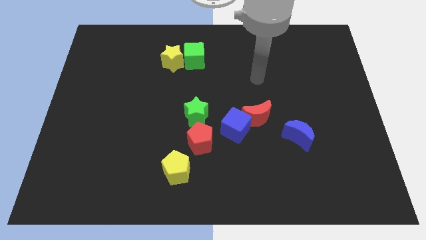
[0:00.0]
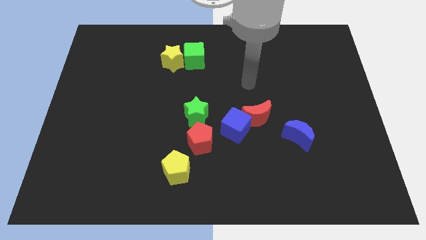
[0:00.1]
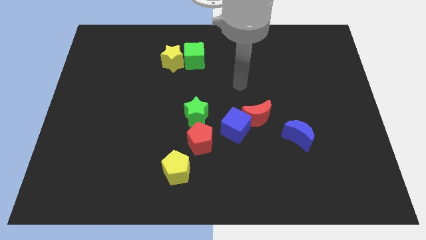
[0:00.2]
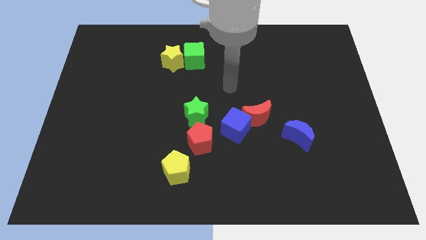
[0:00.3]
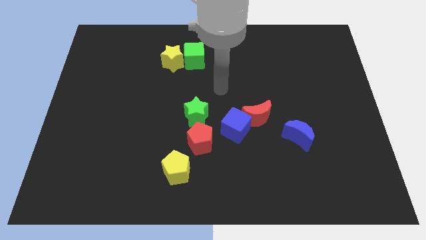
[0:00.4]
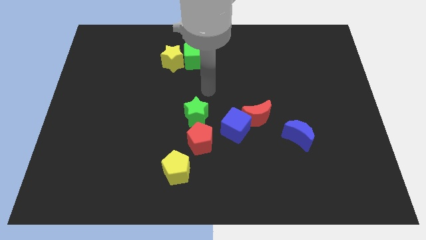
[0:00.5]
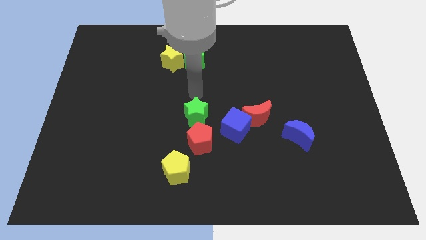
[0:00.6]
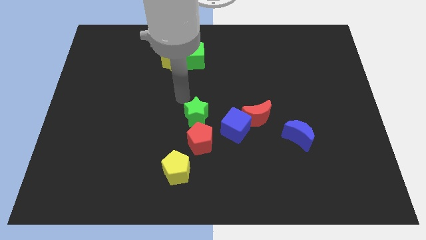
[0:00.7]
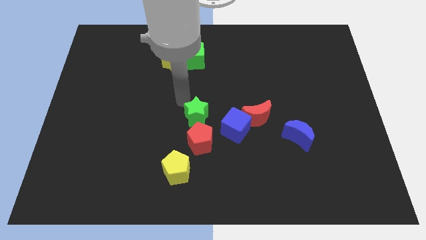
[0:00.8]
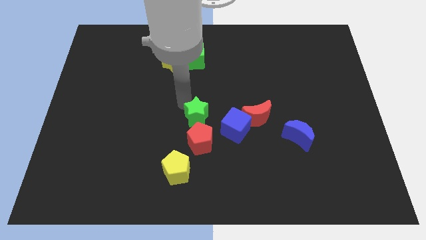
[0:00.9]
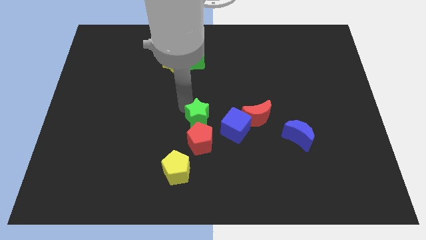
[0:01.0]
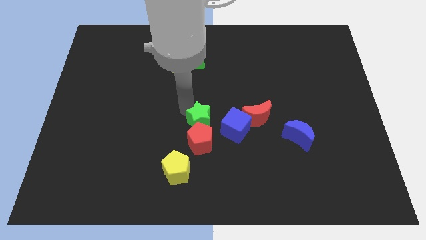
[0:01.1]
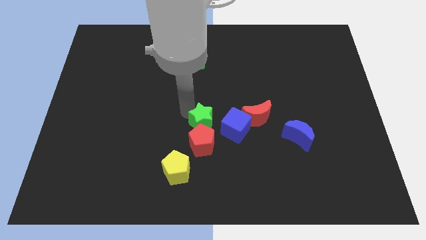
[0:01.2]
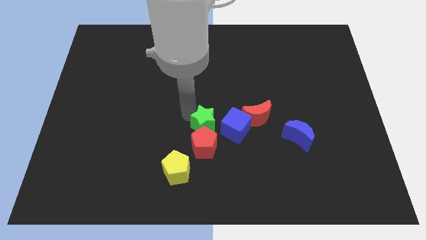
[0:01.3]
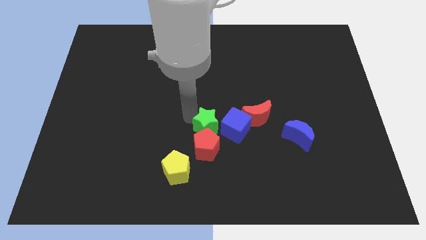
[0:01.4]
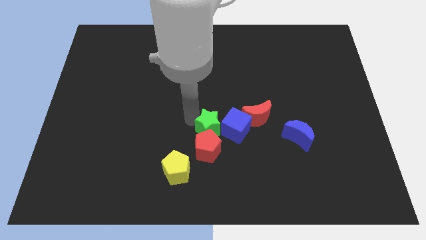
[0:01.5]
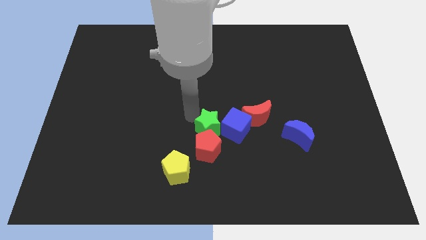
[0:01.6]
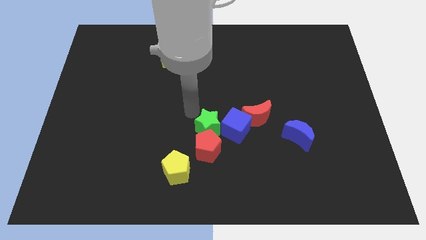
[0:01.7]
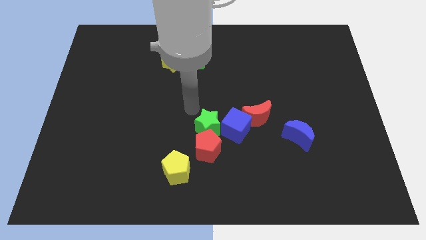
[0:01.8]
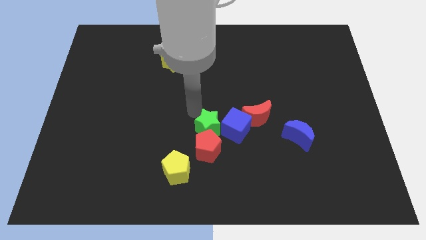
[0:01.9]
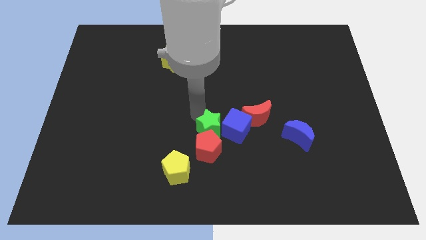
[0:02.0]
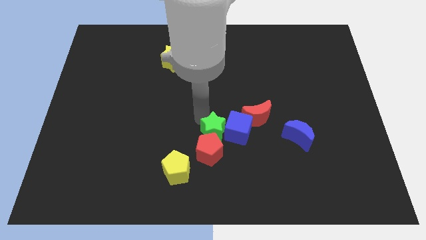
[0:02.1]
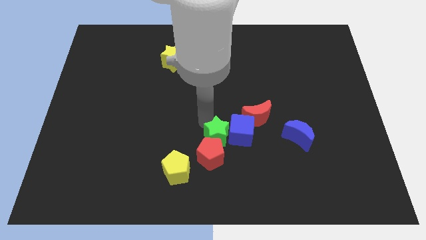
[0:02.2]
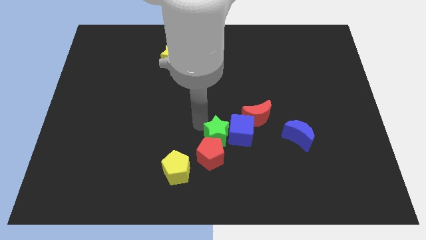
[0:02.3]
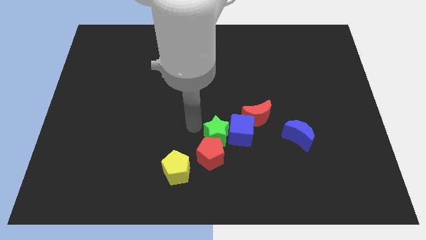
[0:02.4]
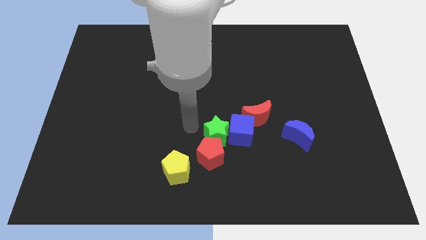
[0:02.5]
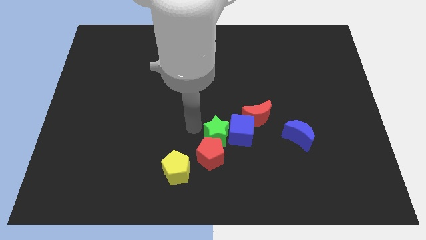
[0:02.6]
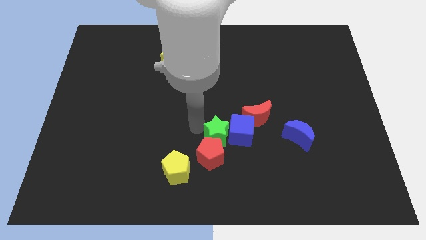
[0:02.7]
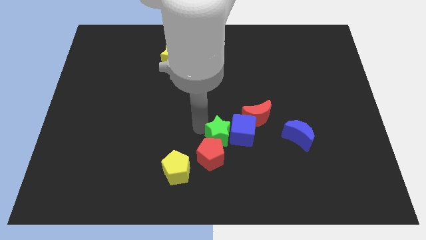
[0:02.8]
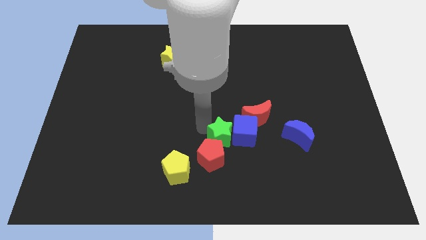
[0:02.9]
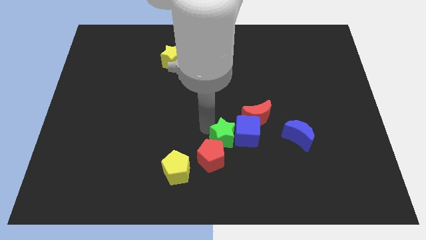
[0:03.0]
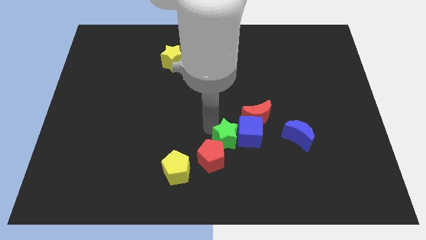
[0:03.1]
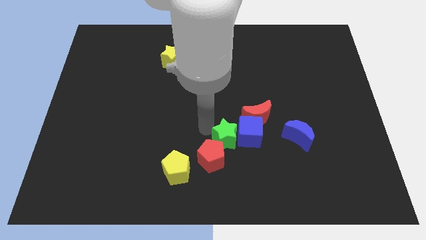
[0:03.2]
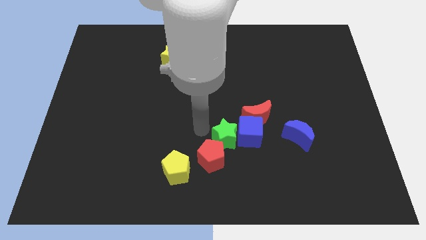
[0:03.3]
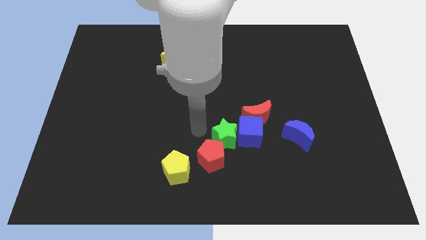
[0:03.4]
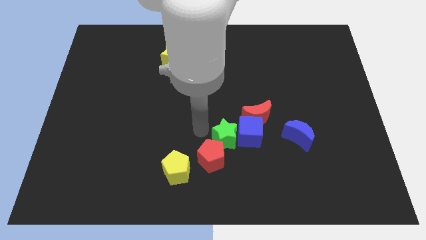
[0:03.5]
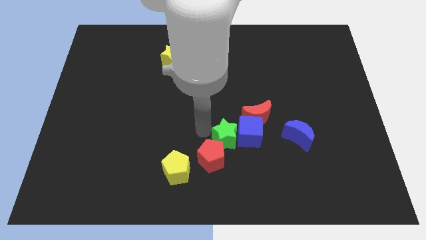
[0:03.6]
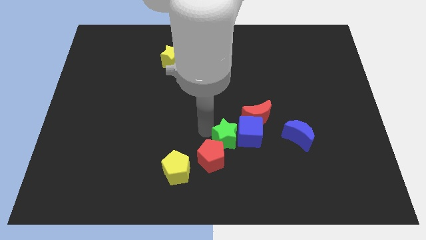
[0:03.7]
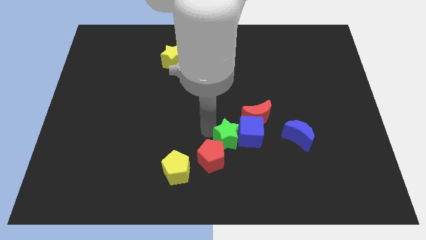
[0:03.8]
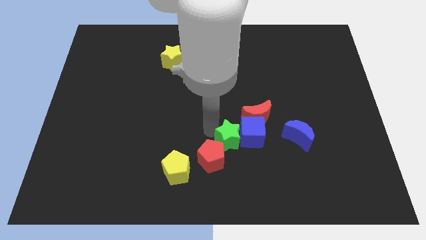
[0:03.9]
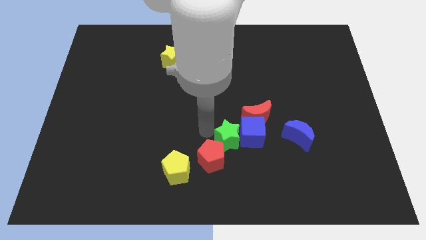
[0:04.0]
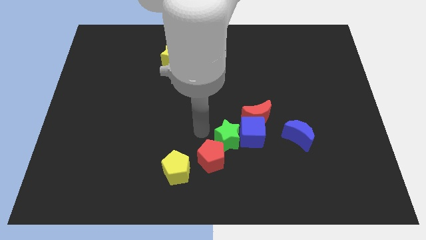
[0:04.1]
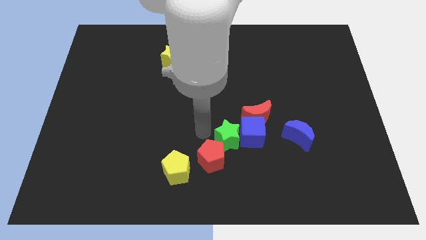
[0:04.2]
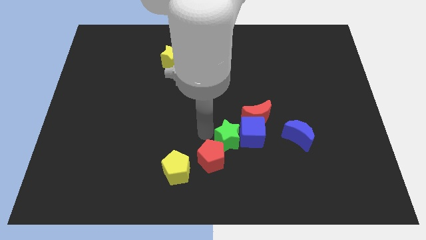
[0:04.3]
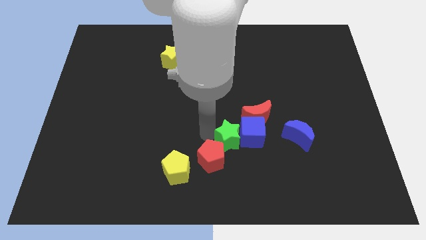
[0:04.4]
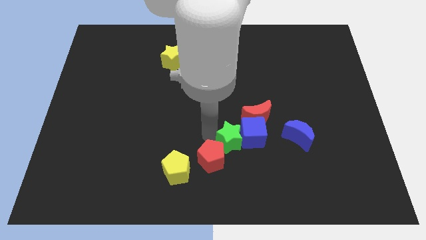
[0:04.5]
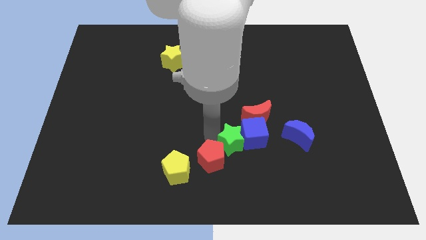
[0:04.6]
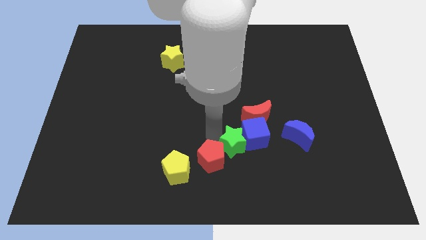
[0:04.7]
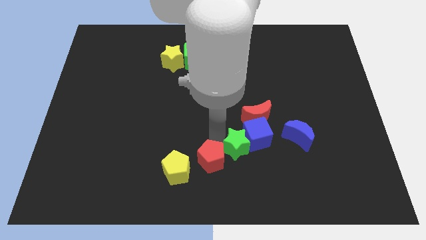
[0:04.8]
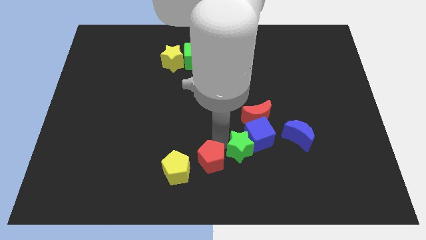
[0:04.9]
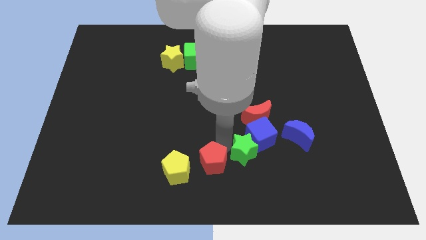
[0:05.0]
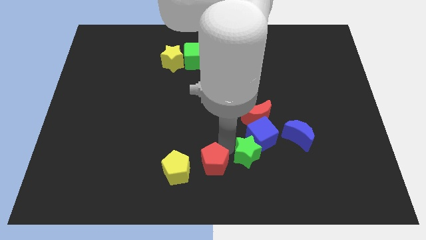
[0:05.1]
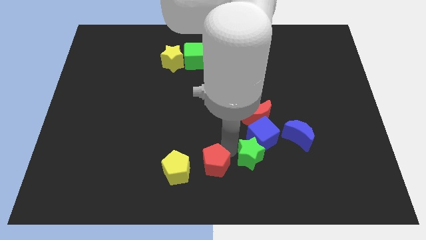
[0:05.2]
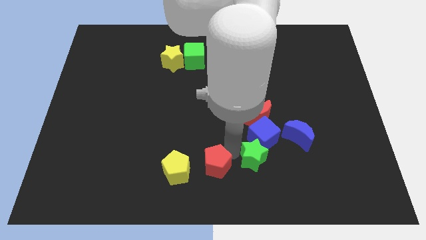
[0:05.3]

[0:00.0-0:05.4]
move the green star diagonally down and to the left of the blue moon

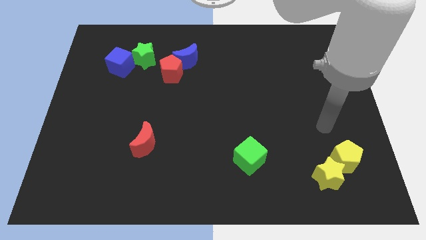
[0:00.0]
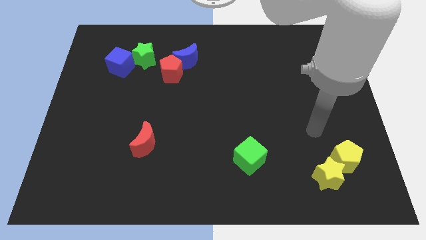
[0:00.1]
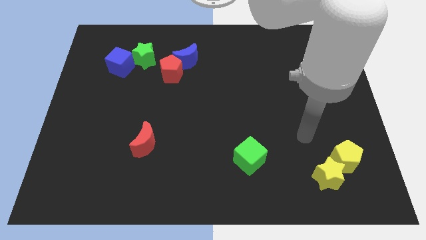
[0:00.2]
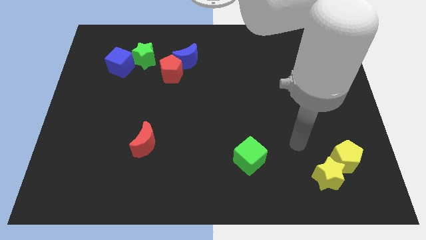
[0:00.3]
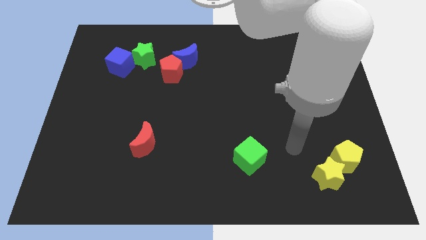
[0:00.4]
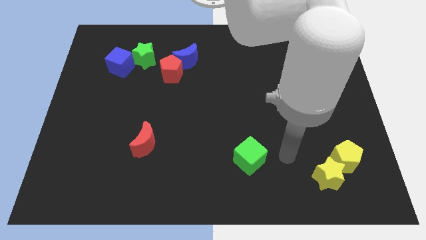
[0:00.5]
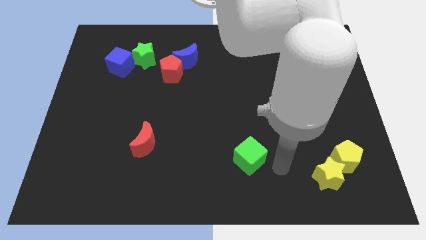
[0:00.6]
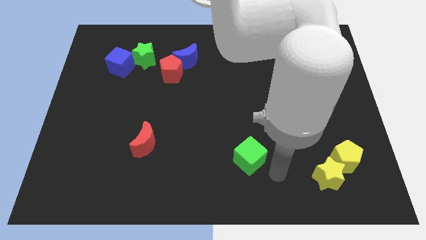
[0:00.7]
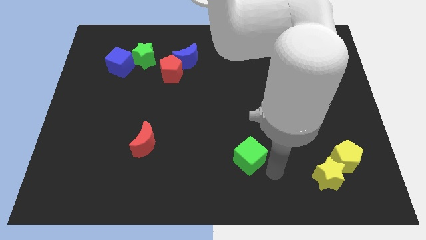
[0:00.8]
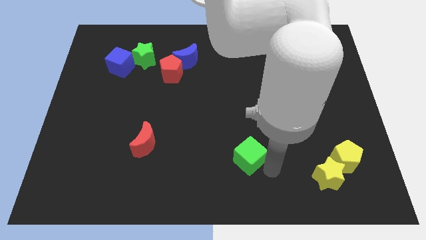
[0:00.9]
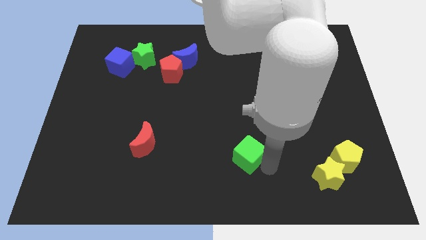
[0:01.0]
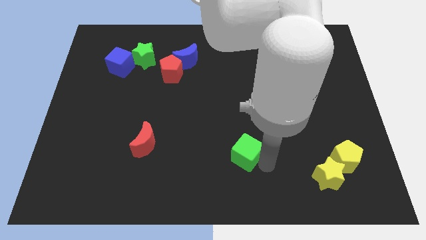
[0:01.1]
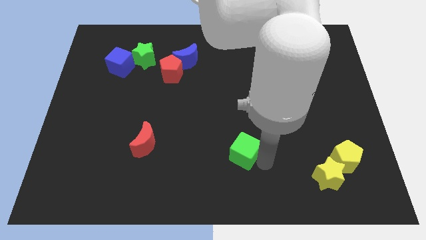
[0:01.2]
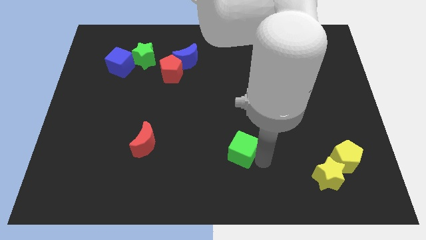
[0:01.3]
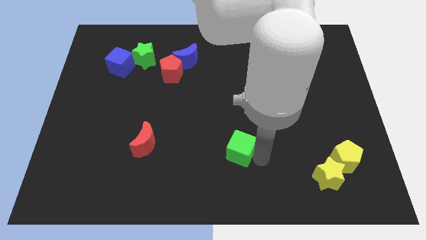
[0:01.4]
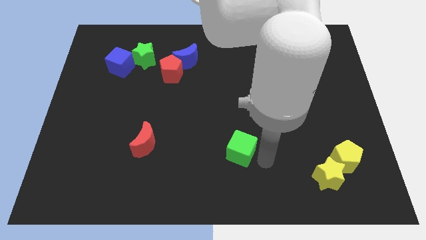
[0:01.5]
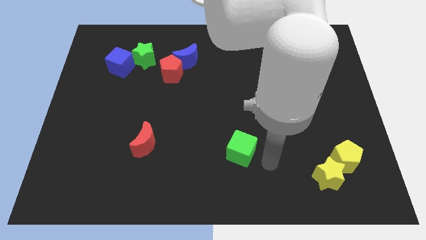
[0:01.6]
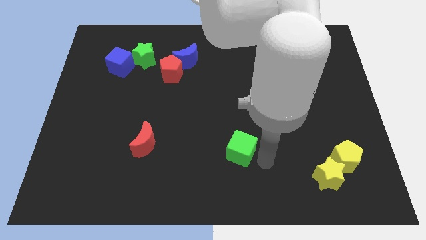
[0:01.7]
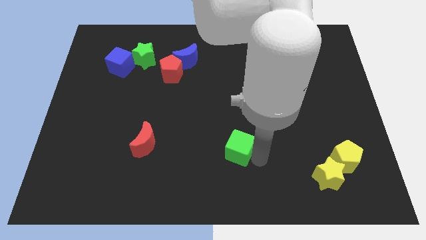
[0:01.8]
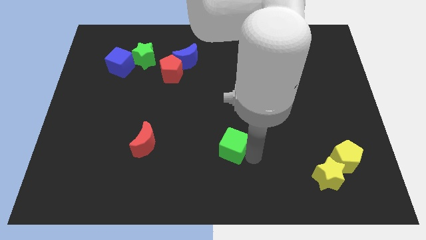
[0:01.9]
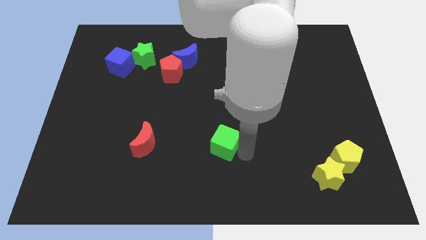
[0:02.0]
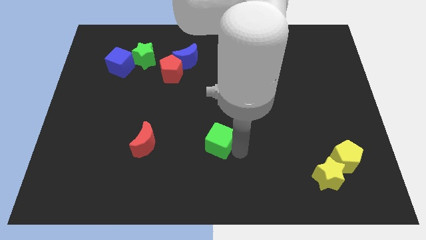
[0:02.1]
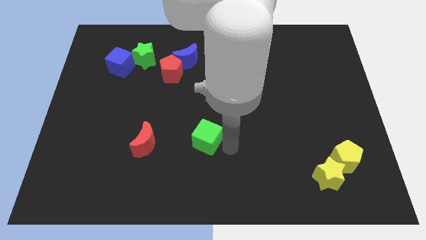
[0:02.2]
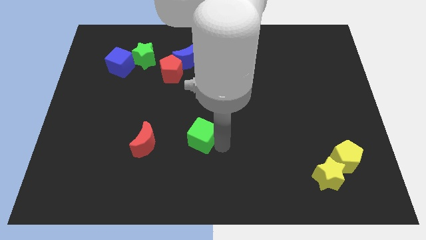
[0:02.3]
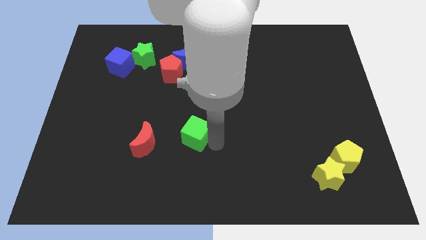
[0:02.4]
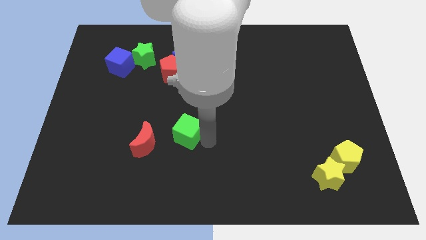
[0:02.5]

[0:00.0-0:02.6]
put the green cube diagonally up and to the right of the red moon
